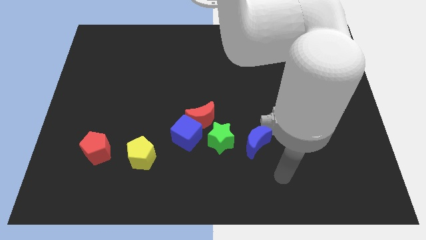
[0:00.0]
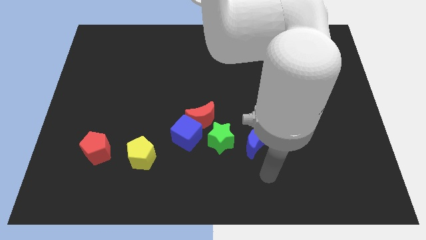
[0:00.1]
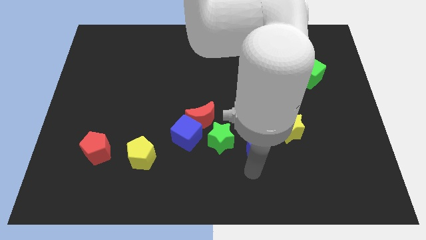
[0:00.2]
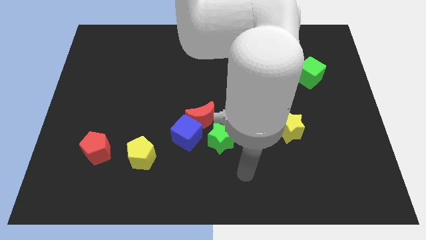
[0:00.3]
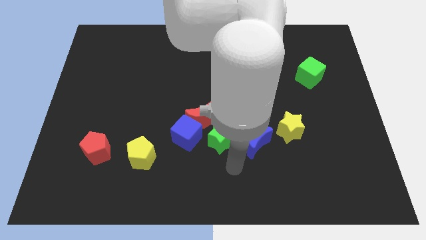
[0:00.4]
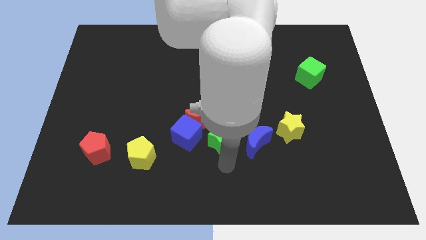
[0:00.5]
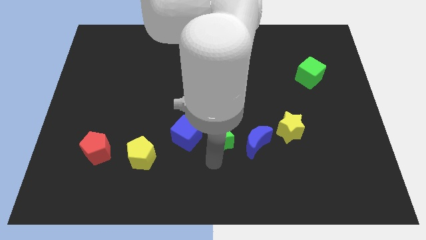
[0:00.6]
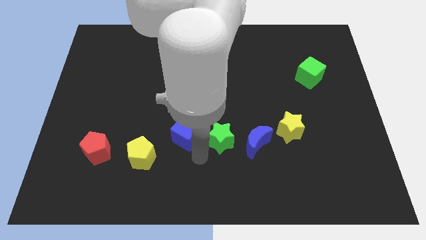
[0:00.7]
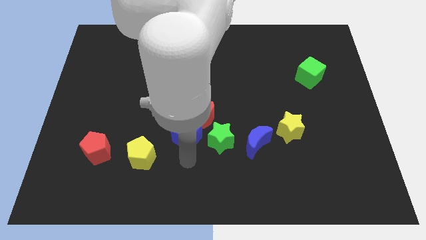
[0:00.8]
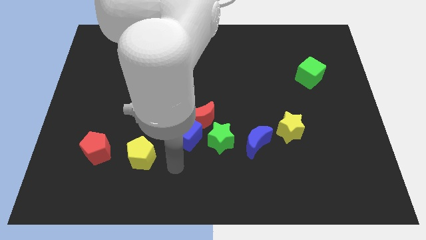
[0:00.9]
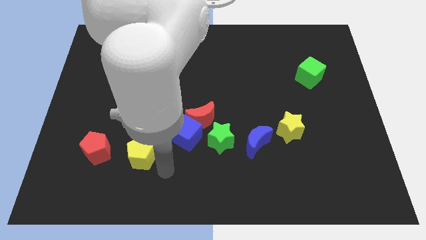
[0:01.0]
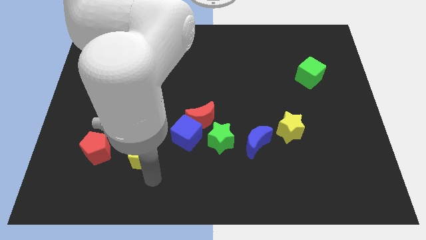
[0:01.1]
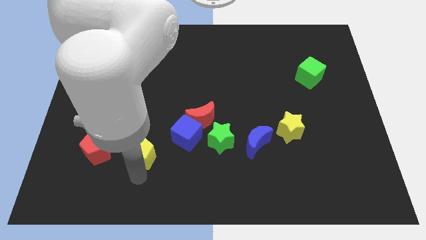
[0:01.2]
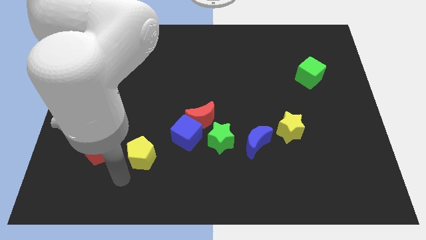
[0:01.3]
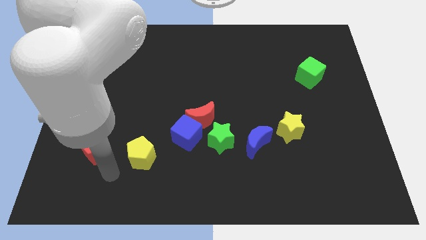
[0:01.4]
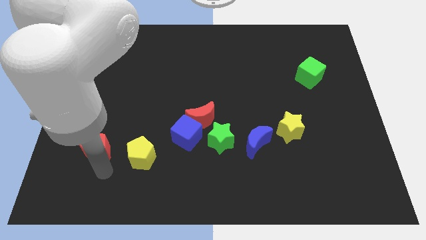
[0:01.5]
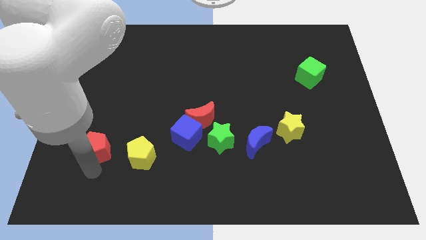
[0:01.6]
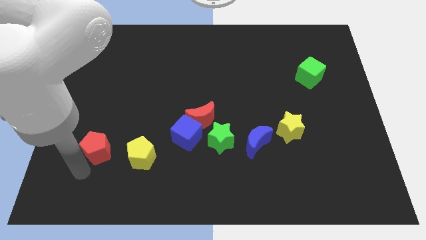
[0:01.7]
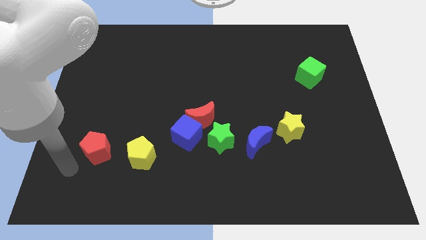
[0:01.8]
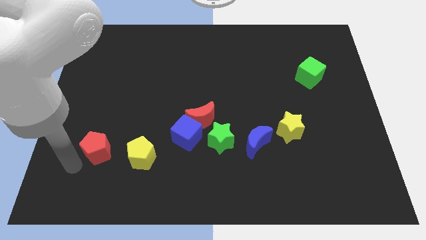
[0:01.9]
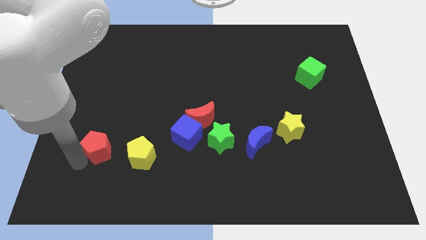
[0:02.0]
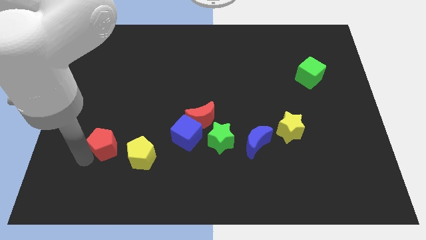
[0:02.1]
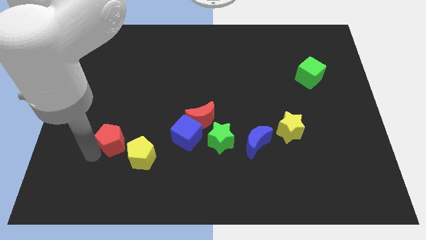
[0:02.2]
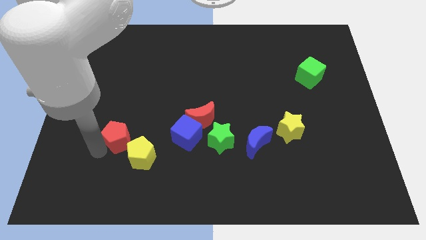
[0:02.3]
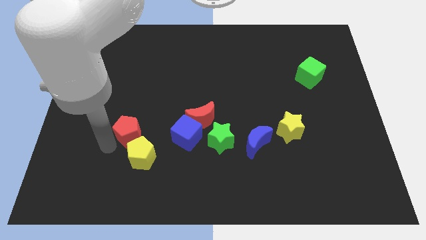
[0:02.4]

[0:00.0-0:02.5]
move the red pentagon somewhat up and then right

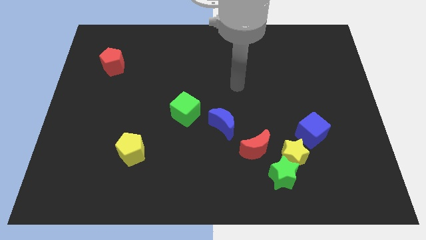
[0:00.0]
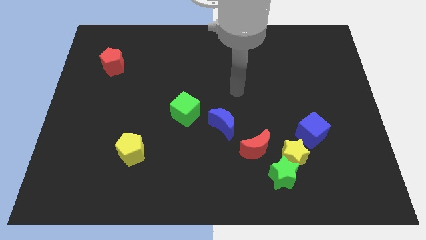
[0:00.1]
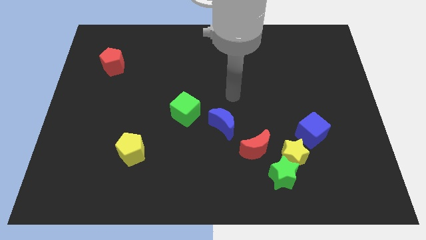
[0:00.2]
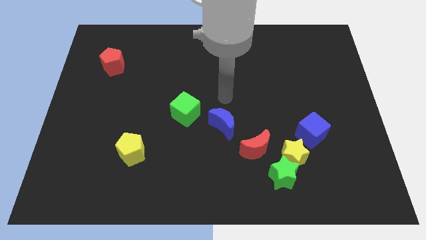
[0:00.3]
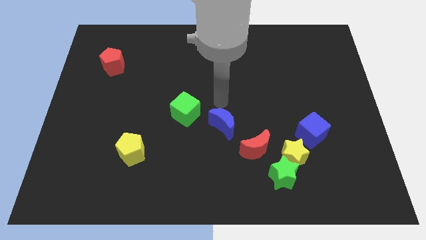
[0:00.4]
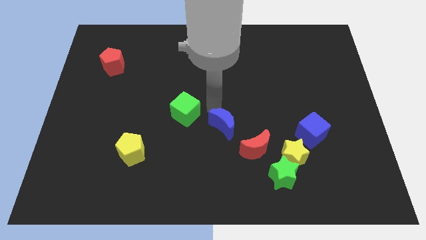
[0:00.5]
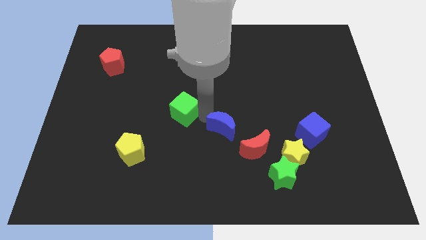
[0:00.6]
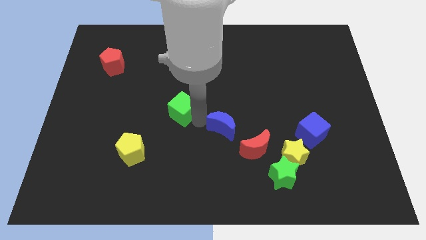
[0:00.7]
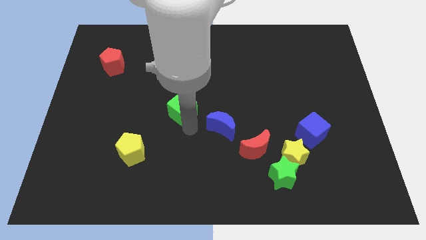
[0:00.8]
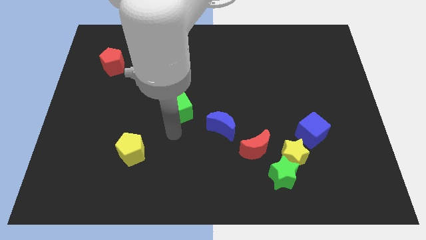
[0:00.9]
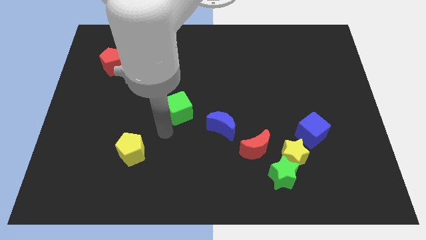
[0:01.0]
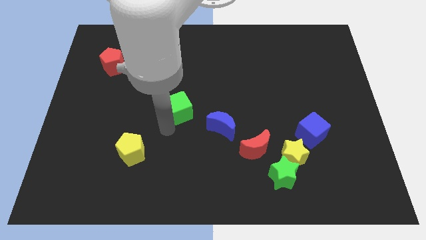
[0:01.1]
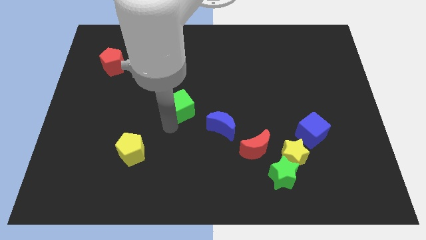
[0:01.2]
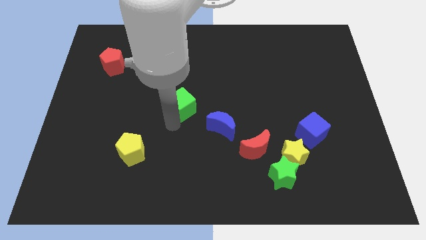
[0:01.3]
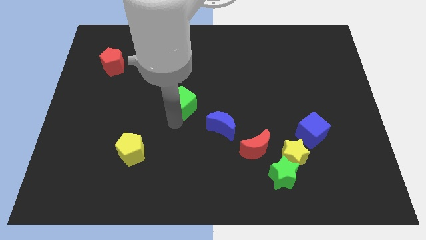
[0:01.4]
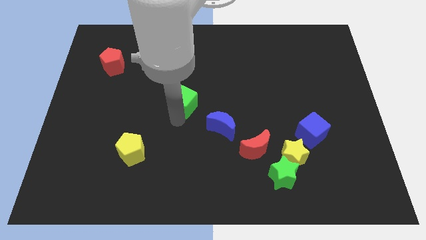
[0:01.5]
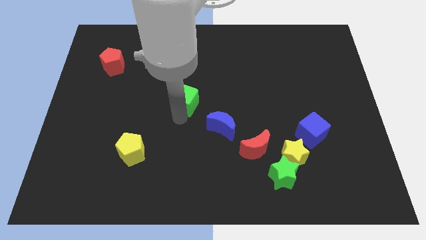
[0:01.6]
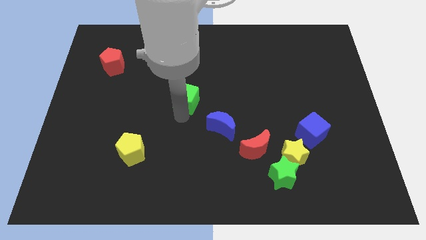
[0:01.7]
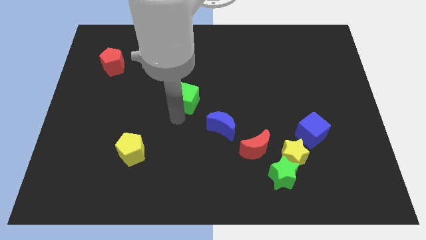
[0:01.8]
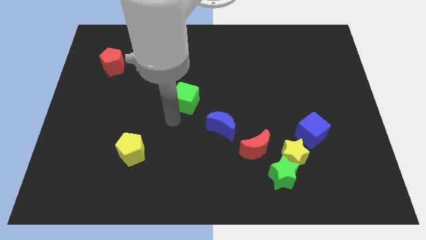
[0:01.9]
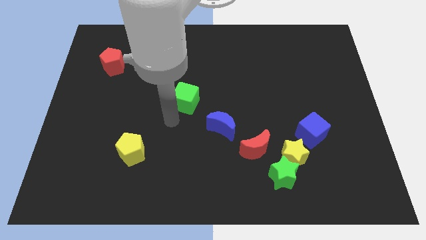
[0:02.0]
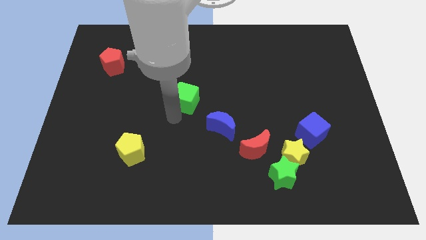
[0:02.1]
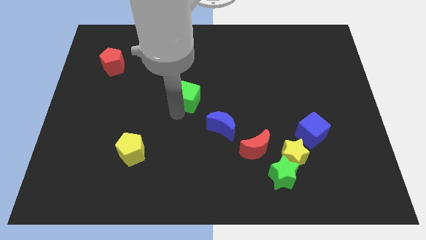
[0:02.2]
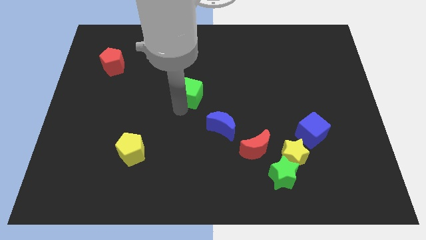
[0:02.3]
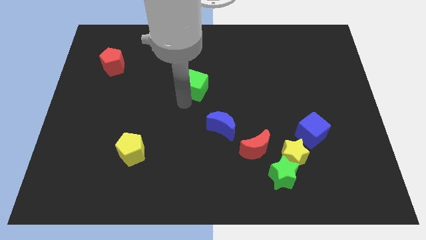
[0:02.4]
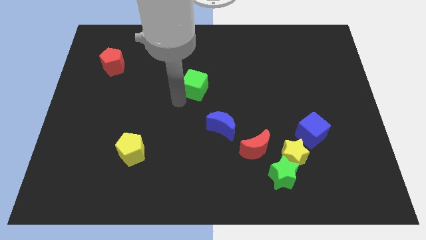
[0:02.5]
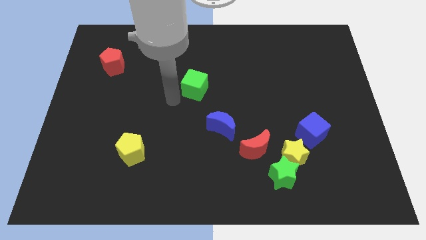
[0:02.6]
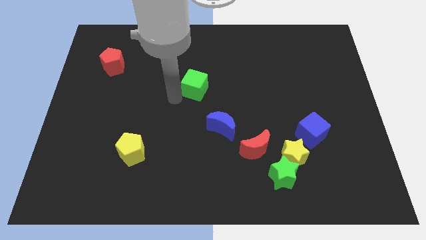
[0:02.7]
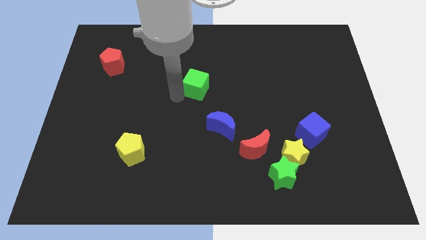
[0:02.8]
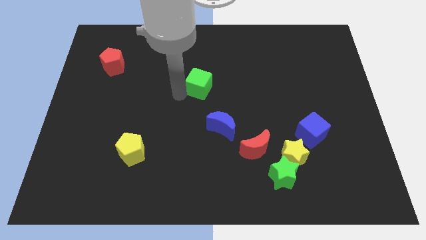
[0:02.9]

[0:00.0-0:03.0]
slightly push the green cube up and right

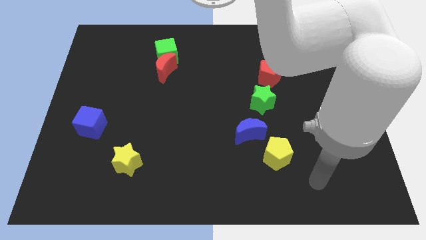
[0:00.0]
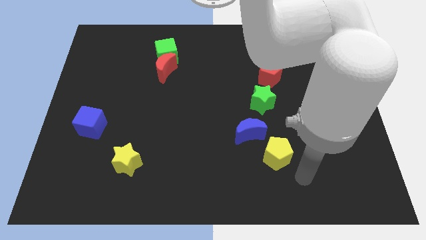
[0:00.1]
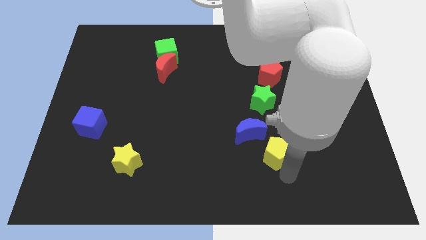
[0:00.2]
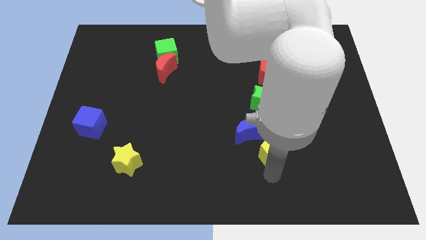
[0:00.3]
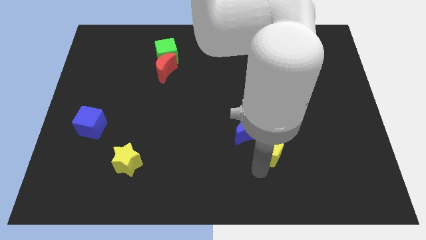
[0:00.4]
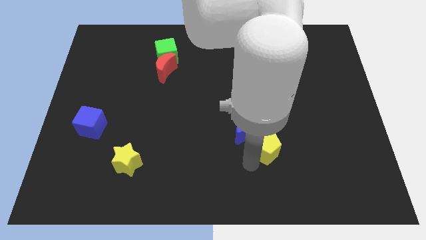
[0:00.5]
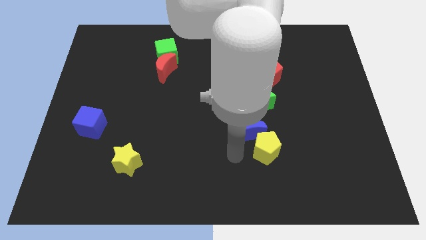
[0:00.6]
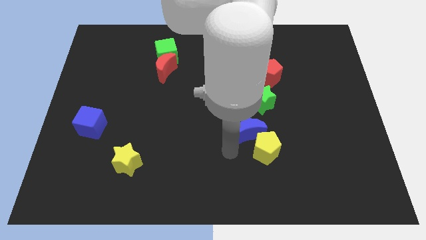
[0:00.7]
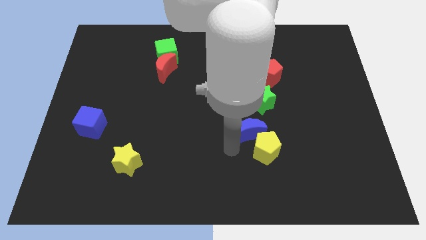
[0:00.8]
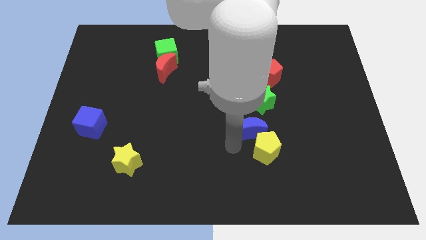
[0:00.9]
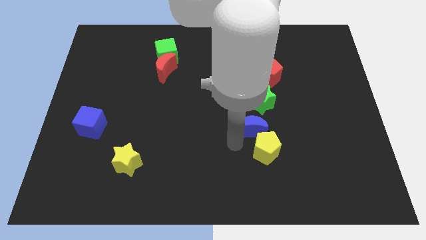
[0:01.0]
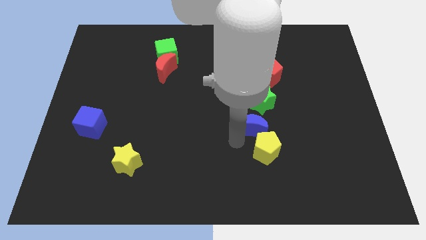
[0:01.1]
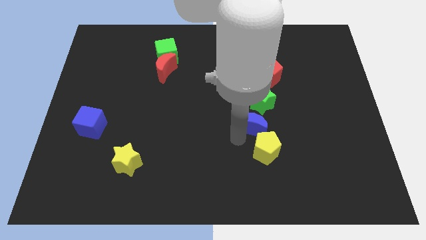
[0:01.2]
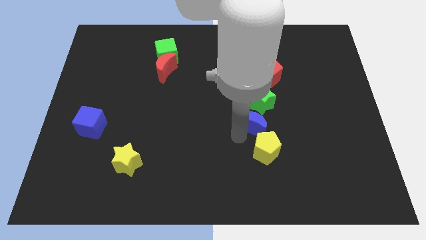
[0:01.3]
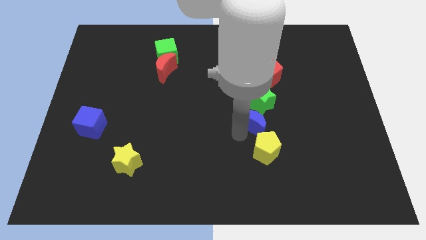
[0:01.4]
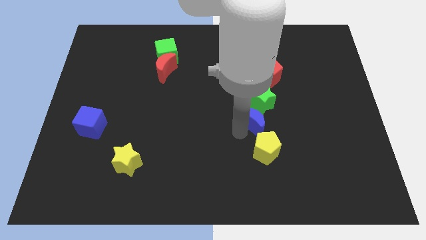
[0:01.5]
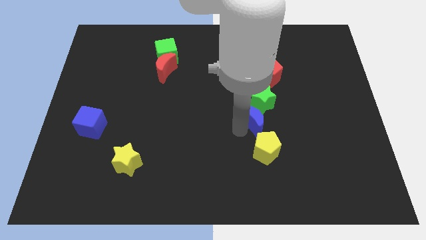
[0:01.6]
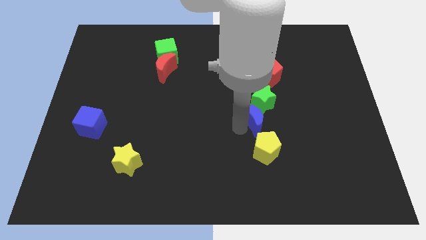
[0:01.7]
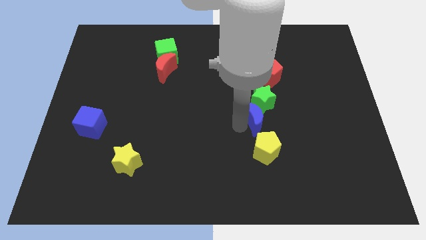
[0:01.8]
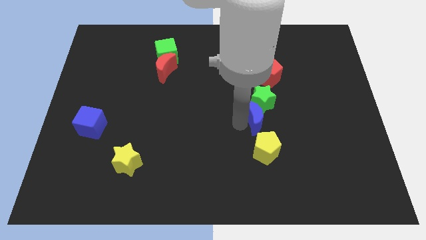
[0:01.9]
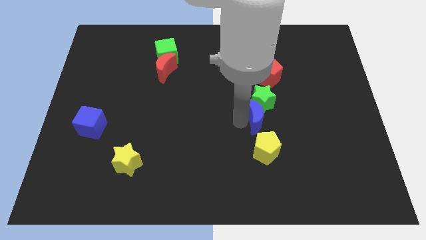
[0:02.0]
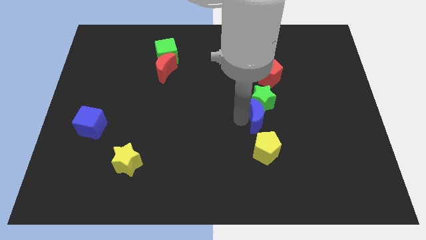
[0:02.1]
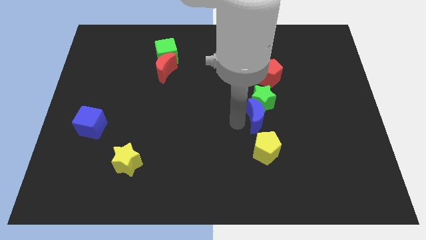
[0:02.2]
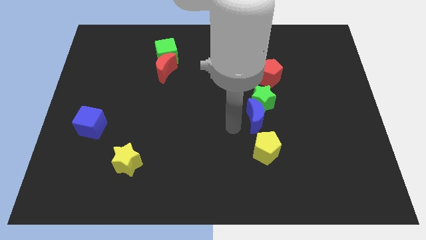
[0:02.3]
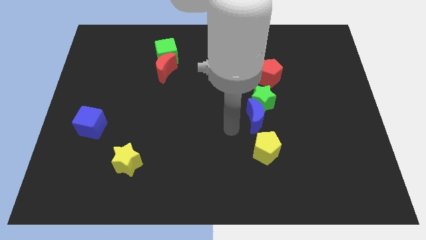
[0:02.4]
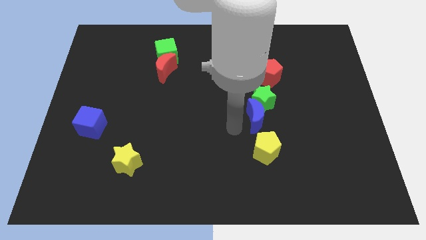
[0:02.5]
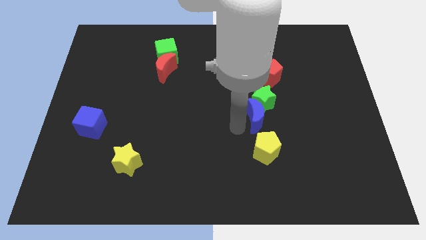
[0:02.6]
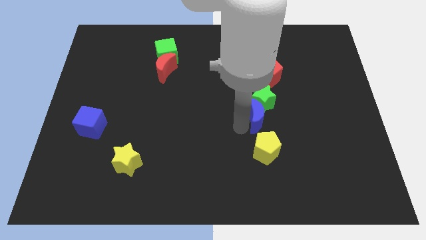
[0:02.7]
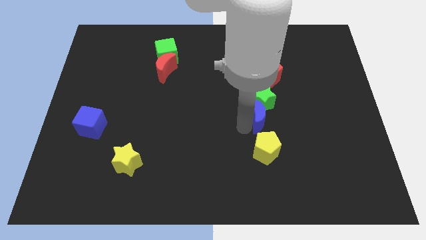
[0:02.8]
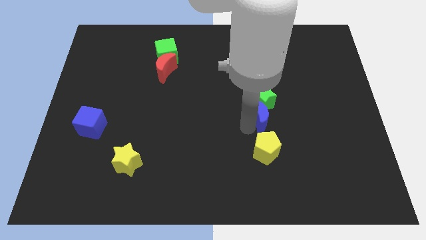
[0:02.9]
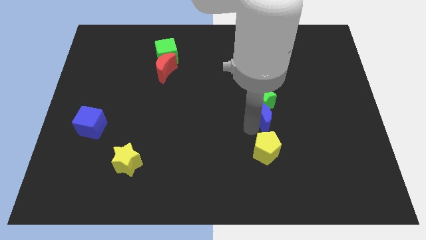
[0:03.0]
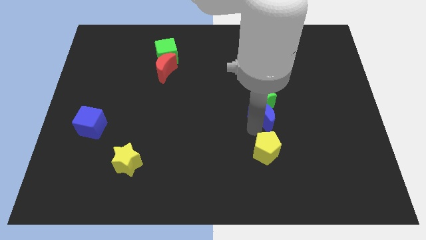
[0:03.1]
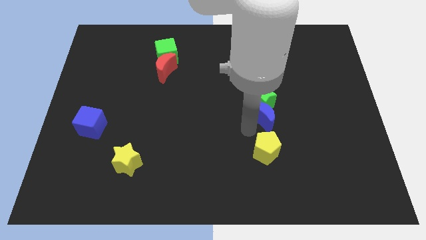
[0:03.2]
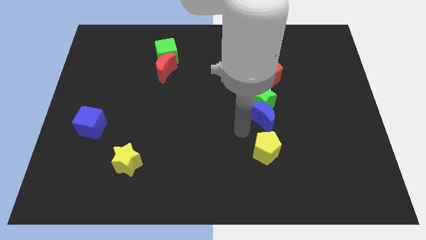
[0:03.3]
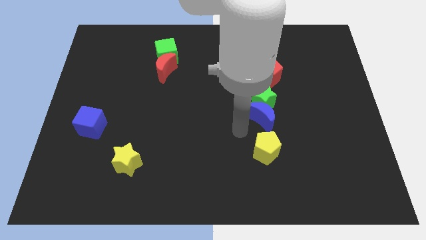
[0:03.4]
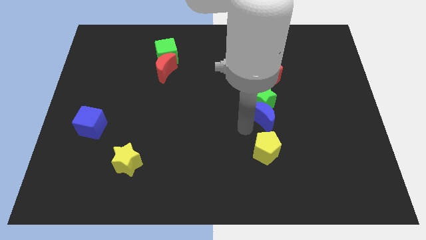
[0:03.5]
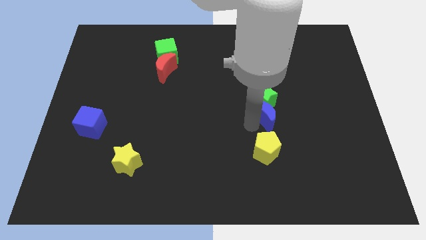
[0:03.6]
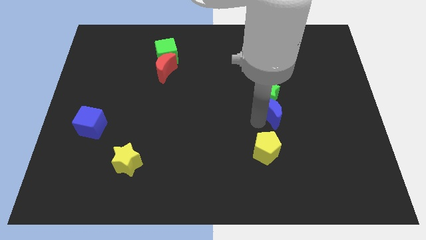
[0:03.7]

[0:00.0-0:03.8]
push the blue moon a little upwards and to the right diagonally
